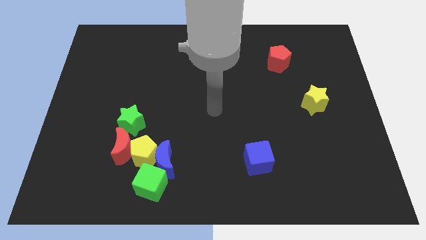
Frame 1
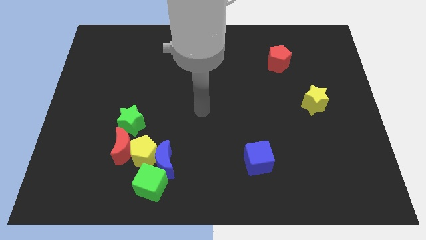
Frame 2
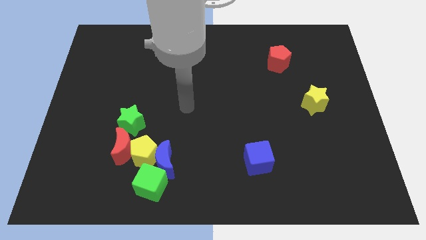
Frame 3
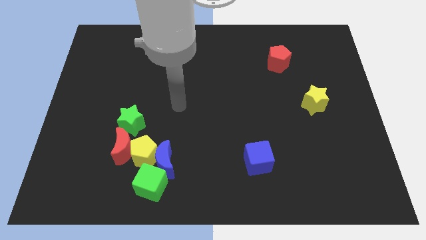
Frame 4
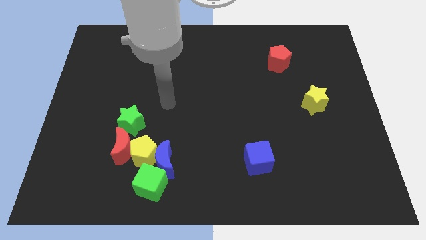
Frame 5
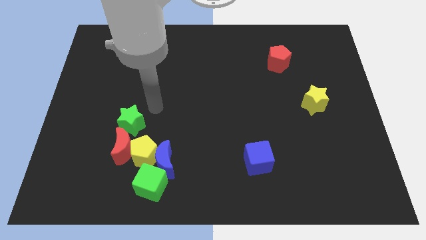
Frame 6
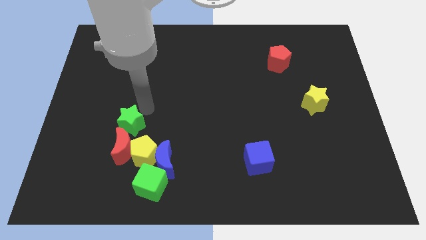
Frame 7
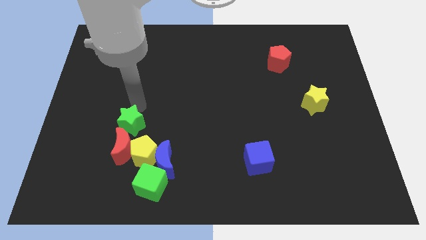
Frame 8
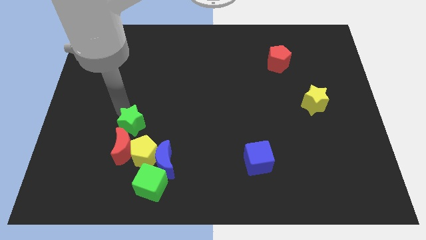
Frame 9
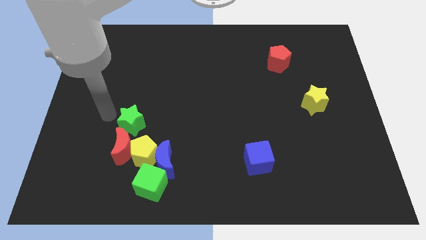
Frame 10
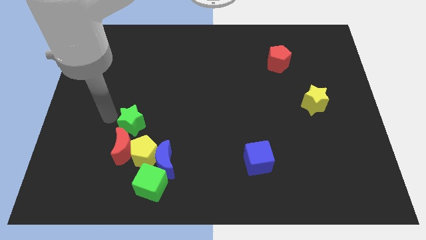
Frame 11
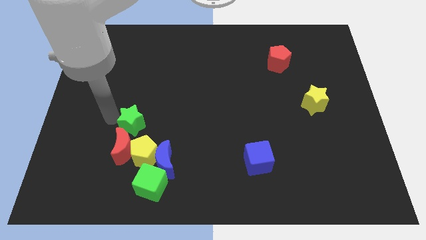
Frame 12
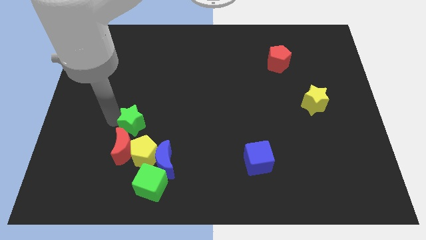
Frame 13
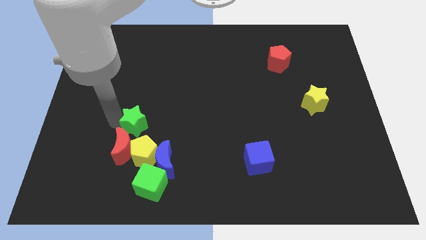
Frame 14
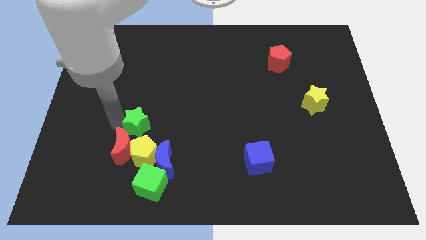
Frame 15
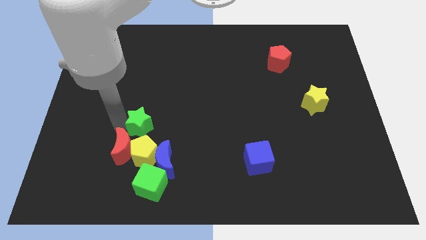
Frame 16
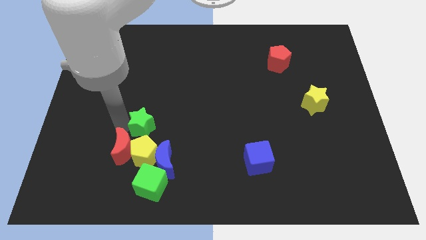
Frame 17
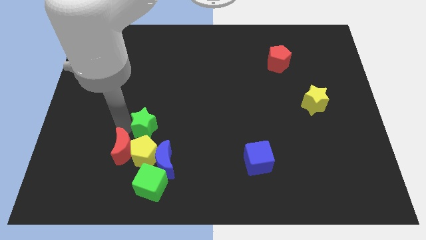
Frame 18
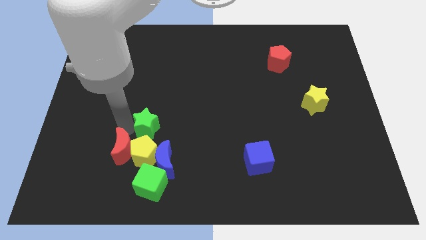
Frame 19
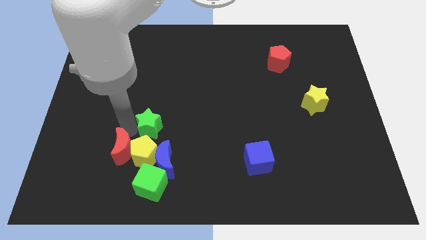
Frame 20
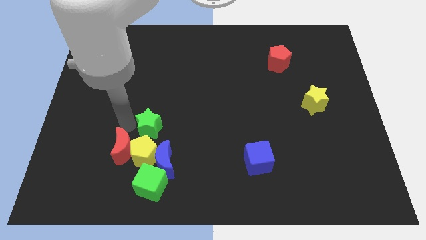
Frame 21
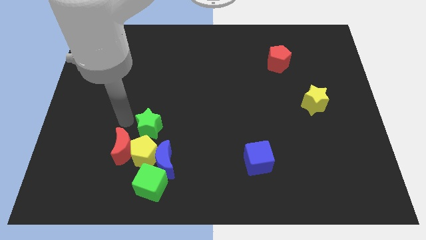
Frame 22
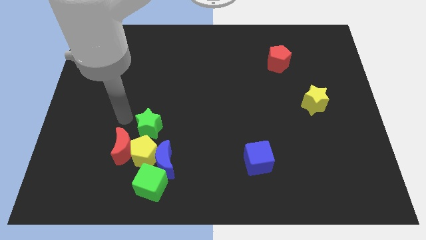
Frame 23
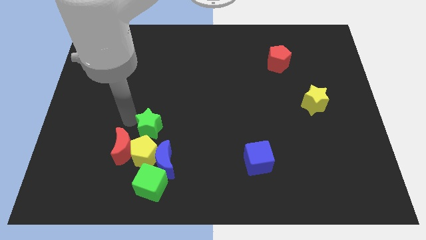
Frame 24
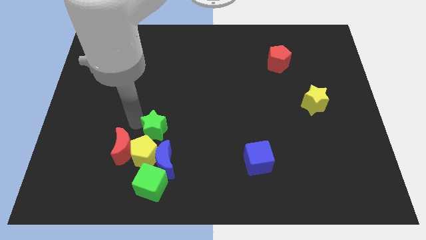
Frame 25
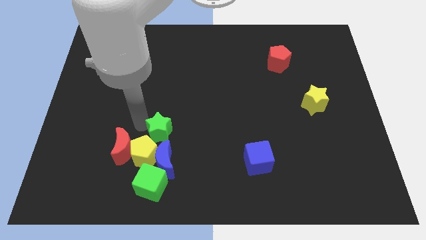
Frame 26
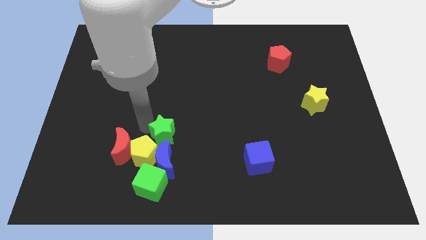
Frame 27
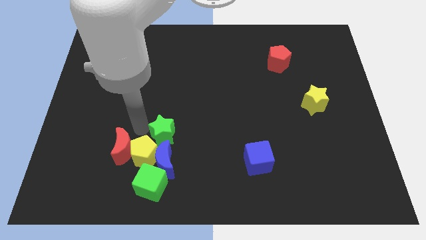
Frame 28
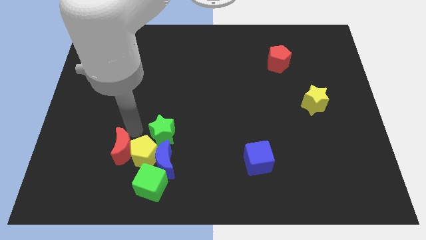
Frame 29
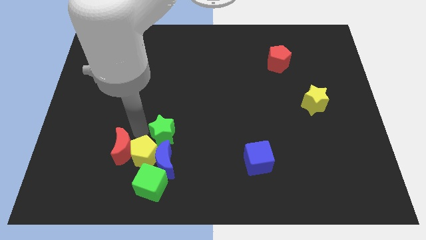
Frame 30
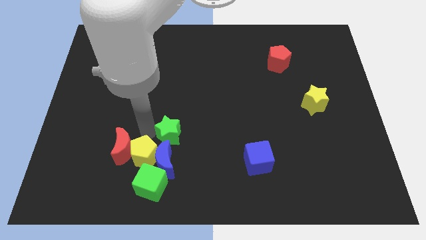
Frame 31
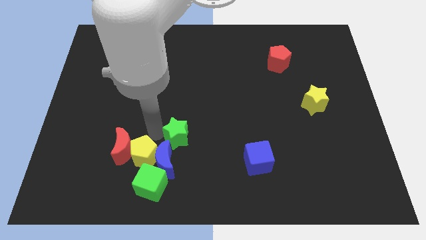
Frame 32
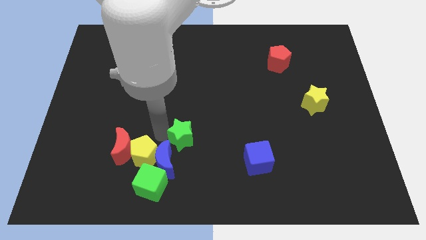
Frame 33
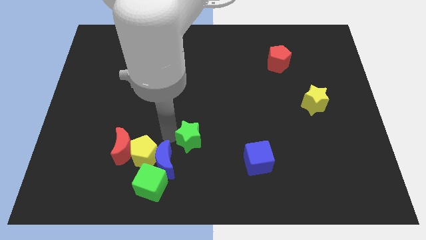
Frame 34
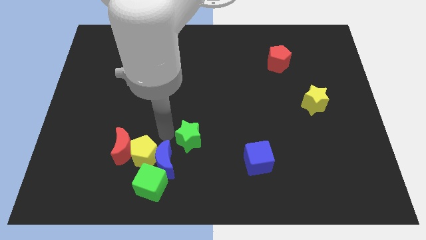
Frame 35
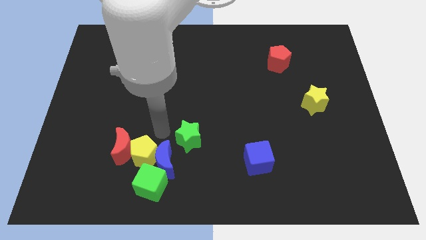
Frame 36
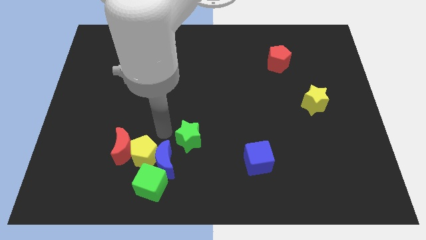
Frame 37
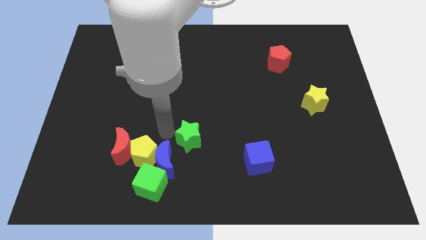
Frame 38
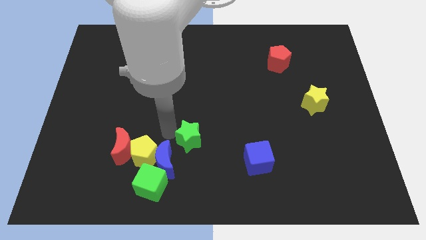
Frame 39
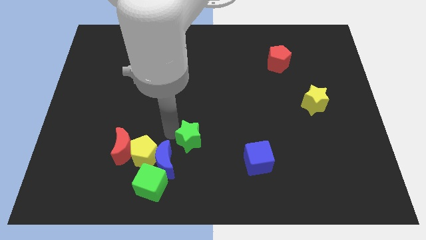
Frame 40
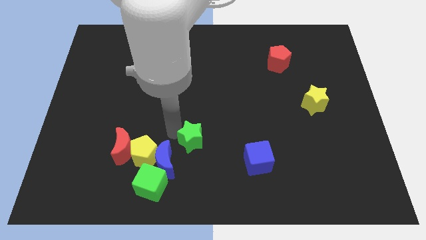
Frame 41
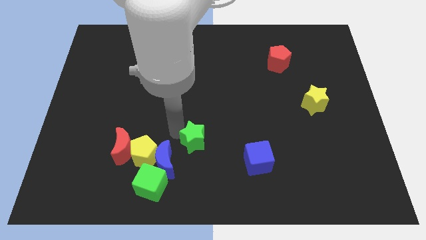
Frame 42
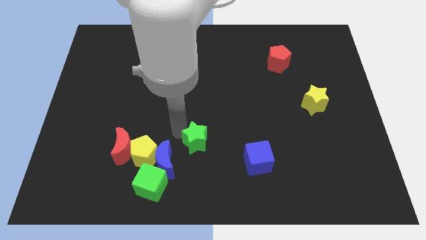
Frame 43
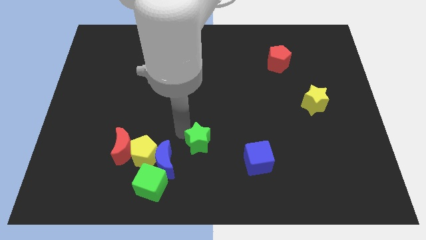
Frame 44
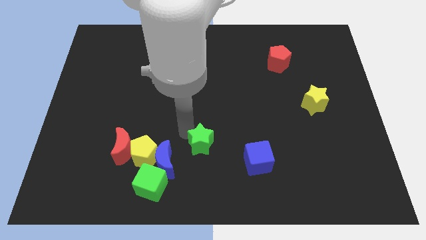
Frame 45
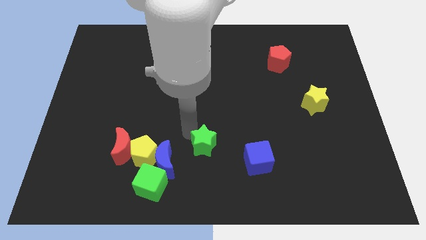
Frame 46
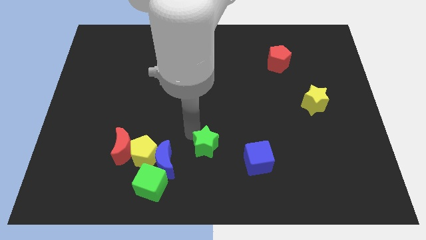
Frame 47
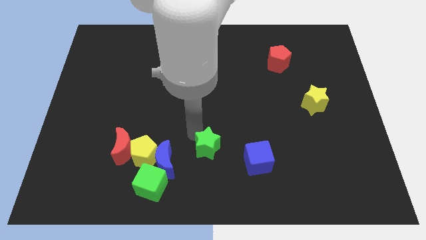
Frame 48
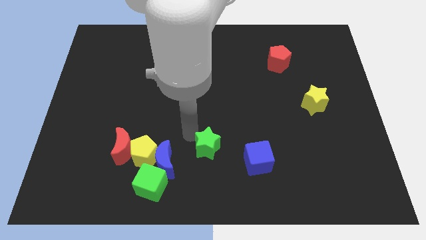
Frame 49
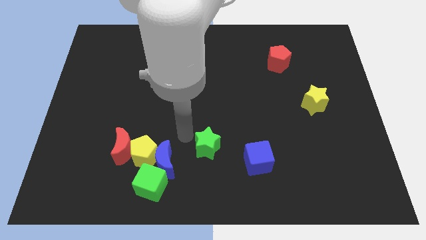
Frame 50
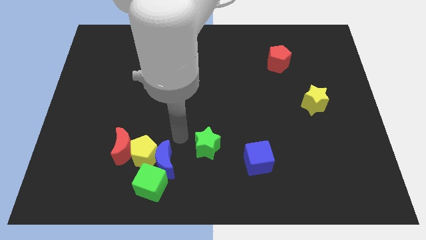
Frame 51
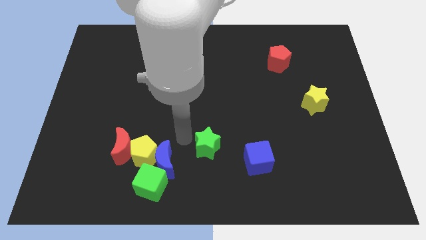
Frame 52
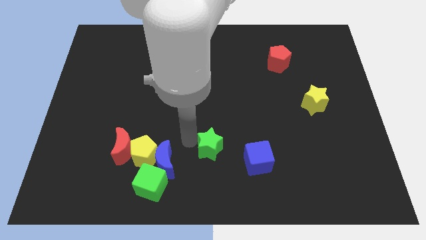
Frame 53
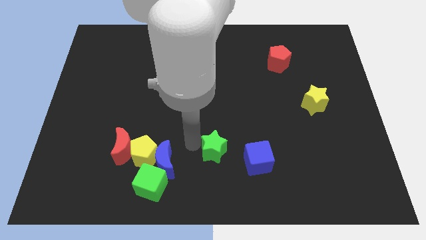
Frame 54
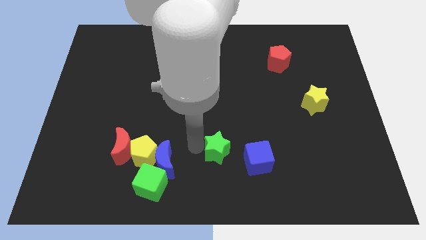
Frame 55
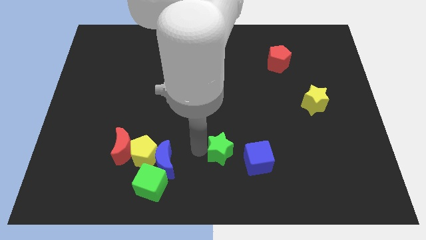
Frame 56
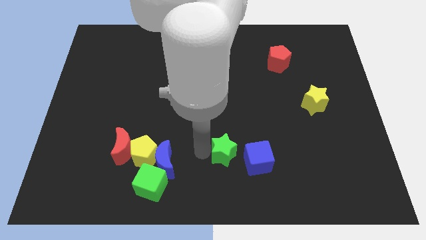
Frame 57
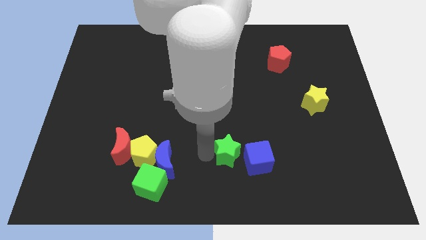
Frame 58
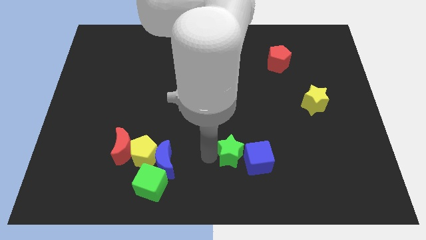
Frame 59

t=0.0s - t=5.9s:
push the green star close to the blue cube

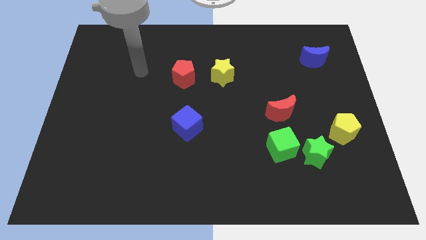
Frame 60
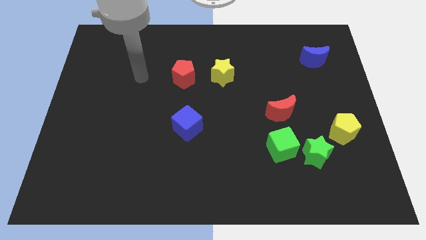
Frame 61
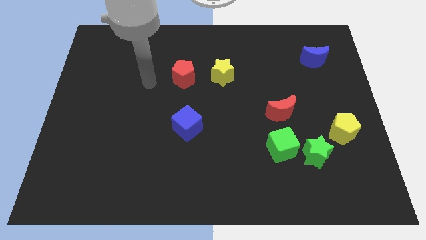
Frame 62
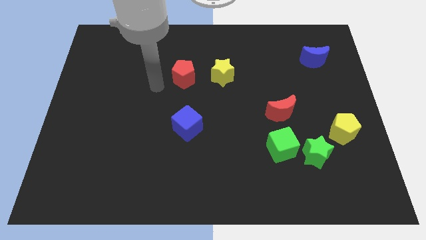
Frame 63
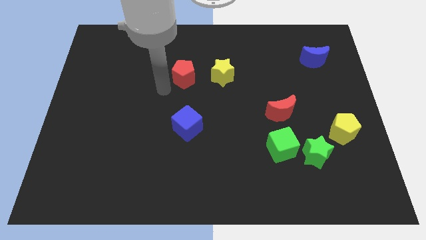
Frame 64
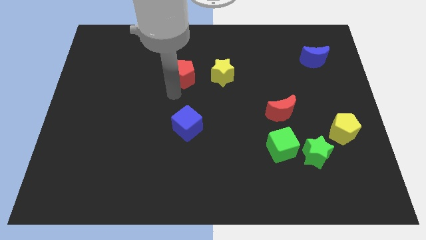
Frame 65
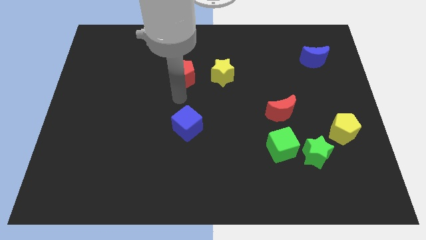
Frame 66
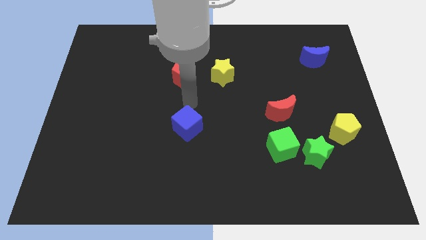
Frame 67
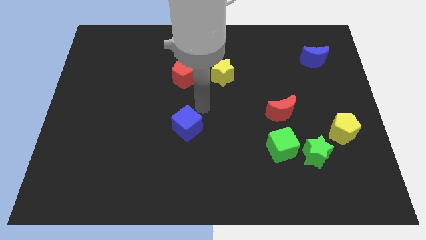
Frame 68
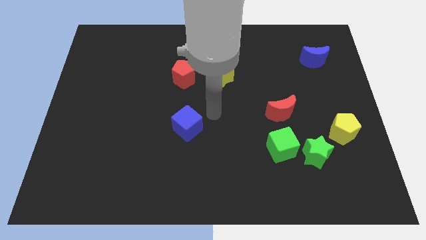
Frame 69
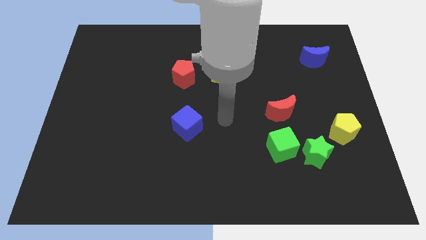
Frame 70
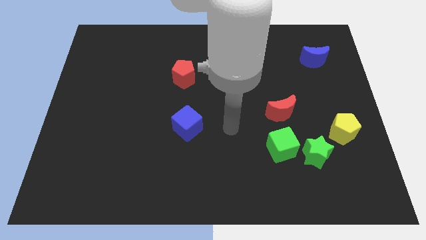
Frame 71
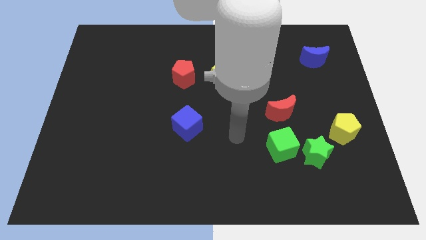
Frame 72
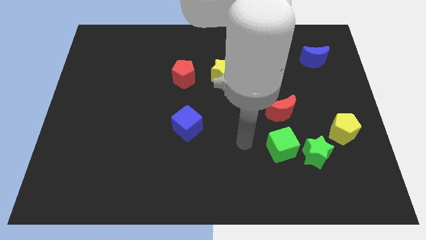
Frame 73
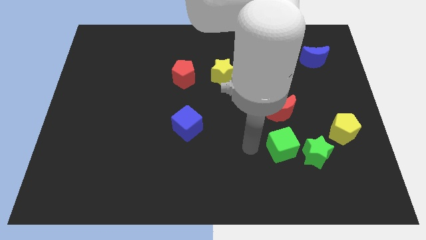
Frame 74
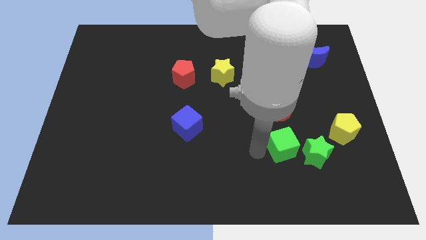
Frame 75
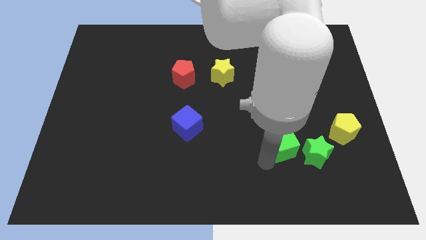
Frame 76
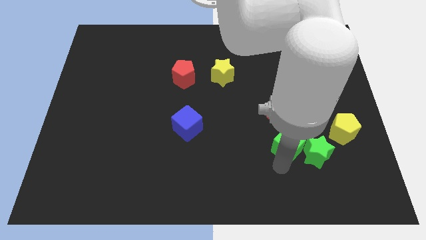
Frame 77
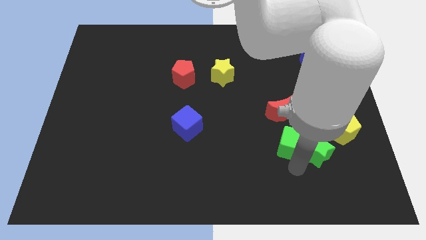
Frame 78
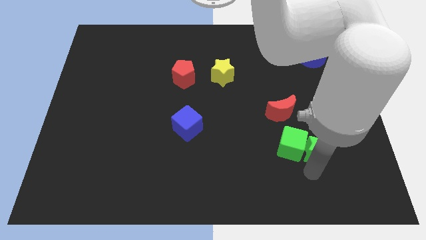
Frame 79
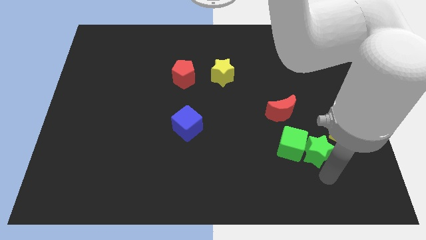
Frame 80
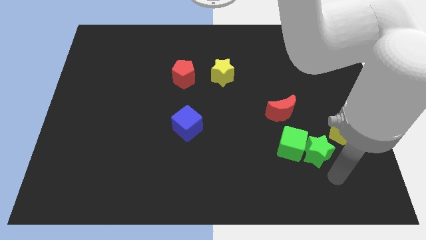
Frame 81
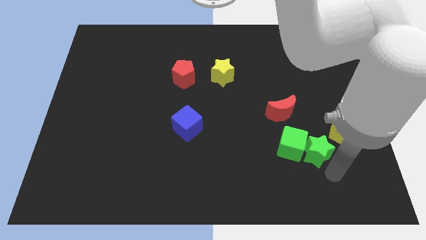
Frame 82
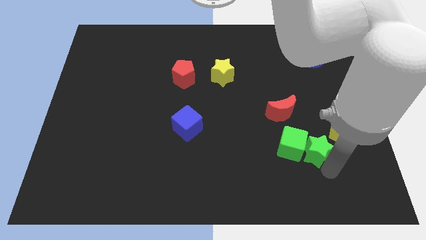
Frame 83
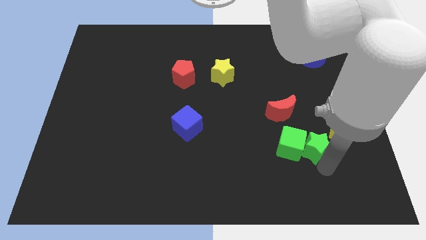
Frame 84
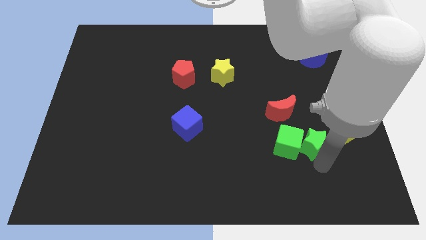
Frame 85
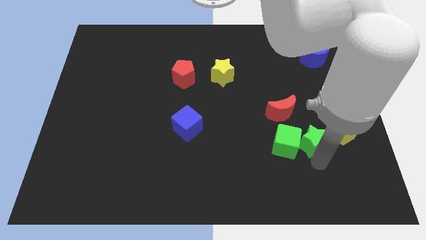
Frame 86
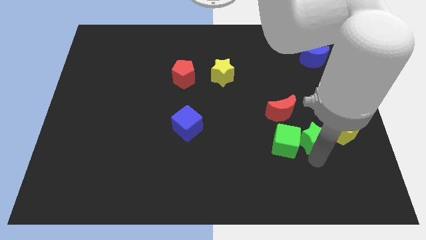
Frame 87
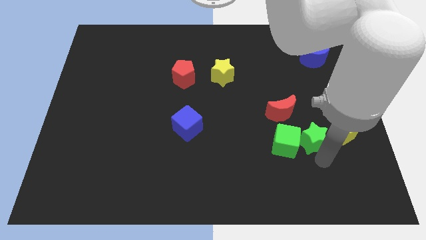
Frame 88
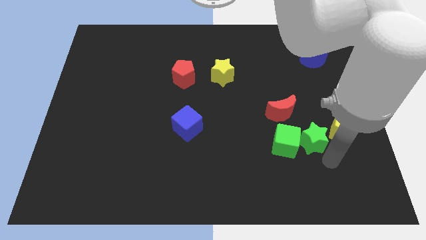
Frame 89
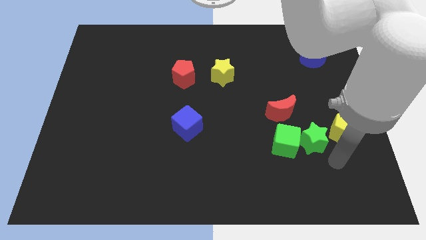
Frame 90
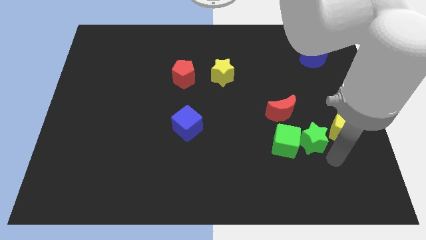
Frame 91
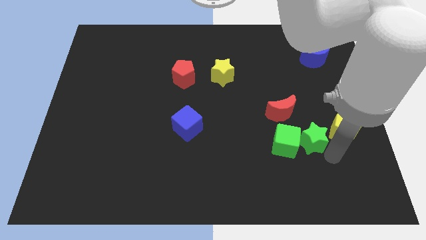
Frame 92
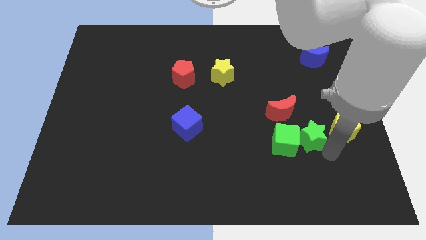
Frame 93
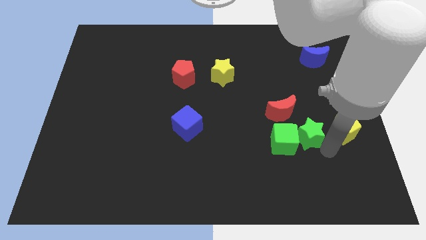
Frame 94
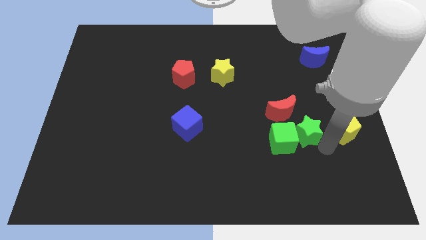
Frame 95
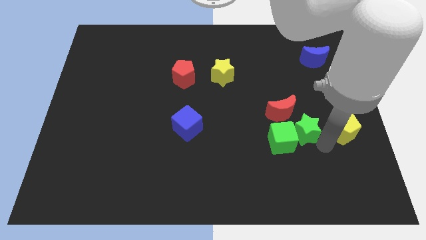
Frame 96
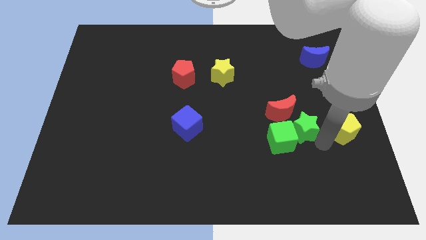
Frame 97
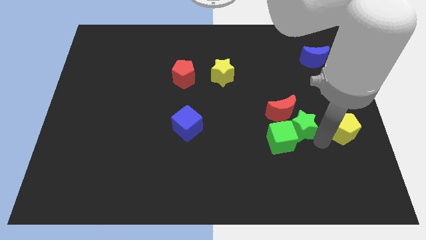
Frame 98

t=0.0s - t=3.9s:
put the green star next to the red moon
